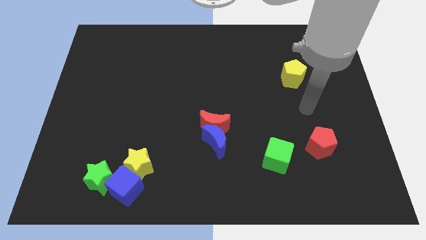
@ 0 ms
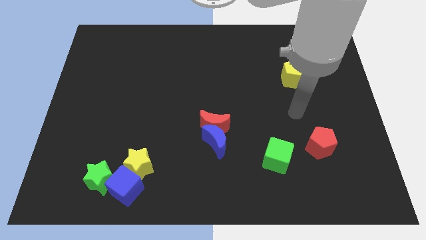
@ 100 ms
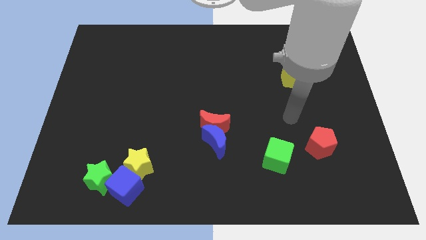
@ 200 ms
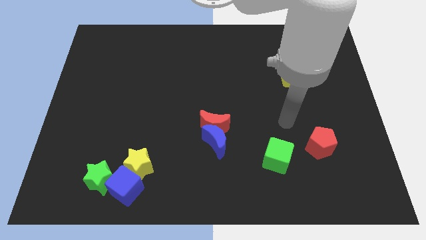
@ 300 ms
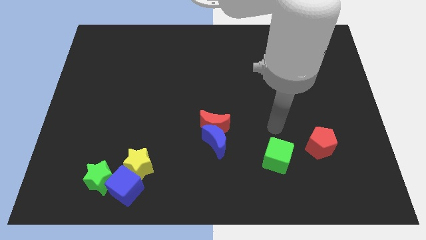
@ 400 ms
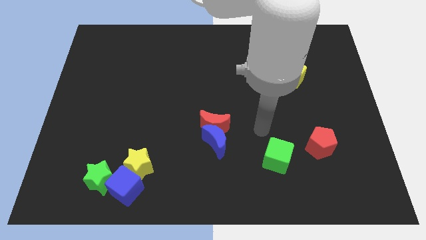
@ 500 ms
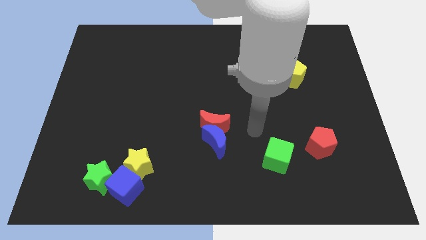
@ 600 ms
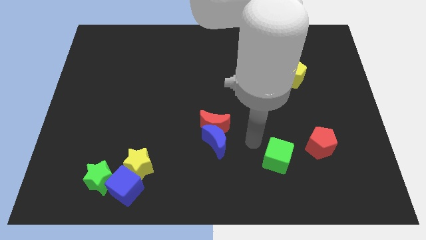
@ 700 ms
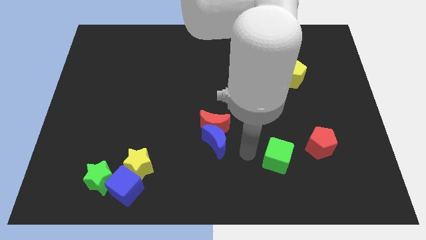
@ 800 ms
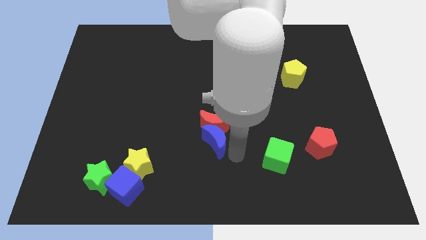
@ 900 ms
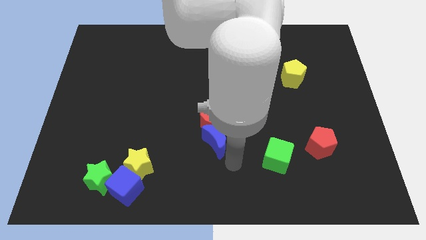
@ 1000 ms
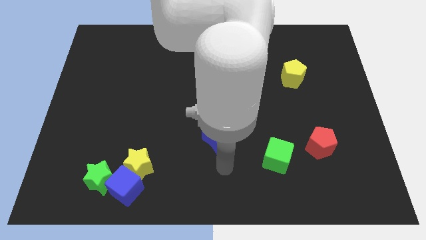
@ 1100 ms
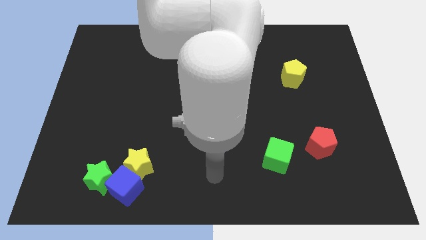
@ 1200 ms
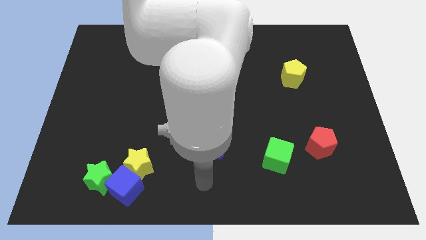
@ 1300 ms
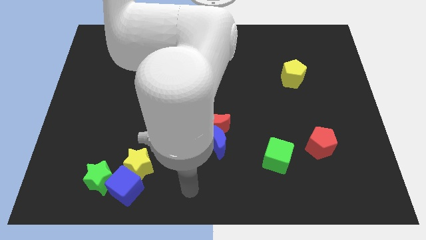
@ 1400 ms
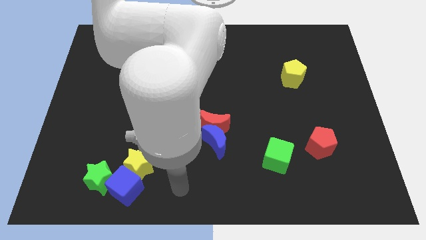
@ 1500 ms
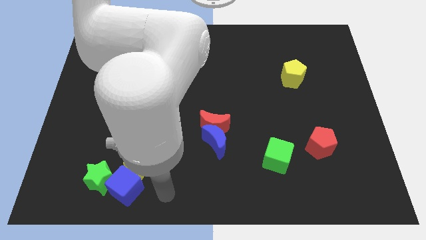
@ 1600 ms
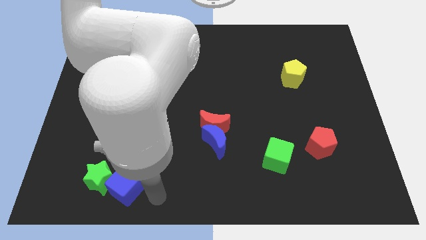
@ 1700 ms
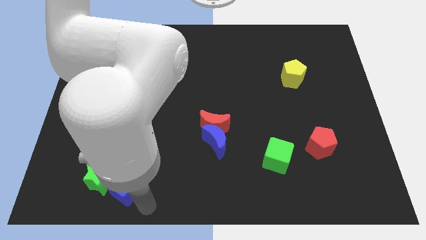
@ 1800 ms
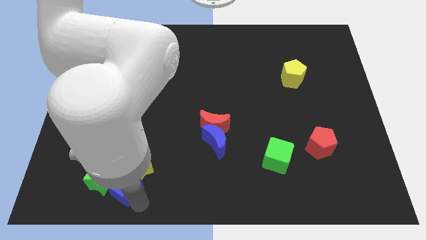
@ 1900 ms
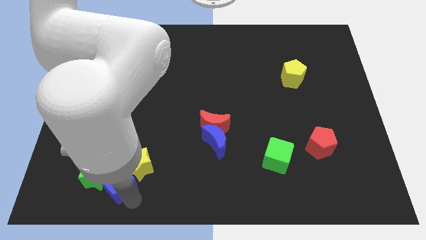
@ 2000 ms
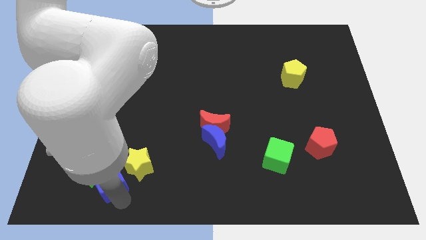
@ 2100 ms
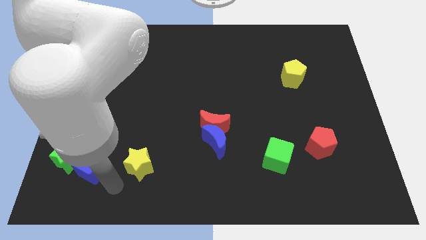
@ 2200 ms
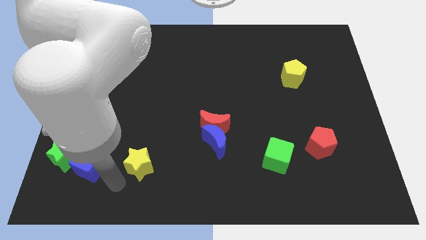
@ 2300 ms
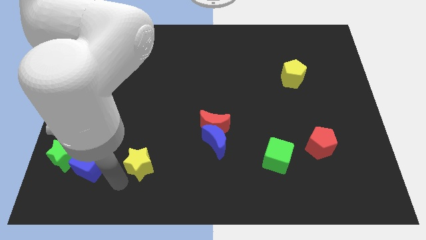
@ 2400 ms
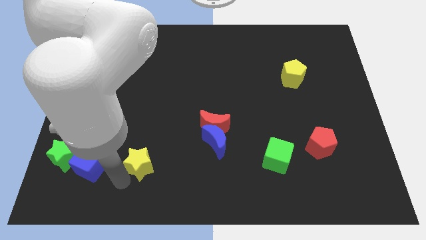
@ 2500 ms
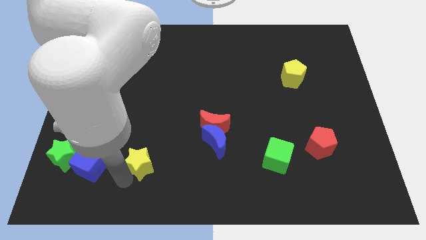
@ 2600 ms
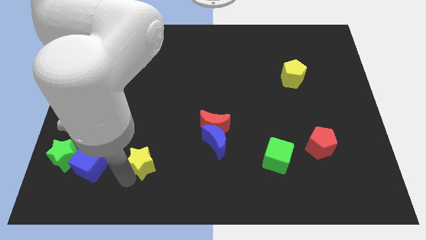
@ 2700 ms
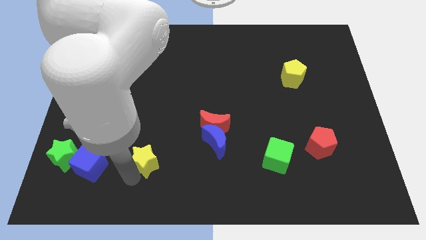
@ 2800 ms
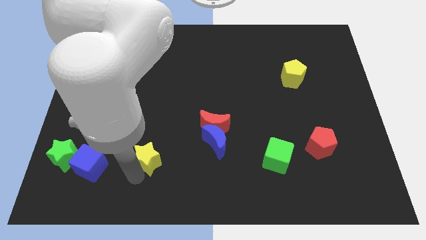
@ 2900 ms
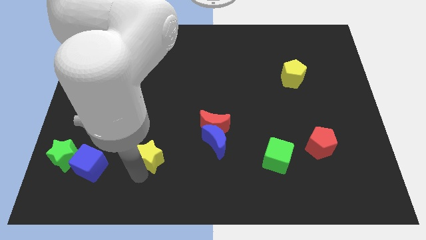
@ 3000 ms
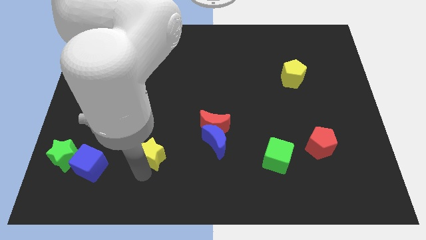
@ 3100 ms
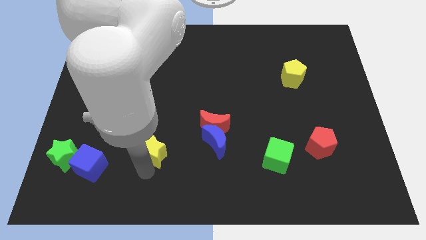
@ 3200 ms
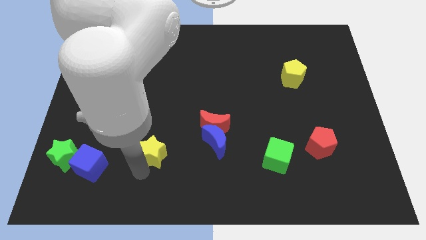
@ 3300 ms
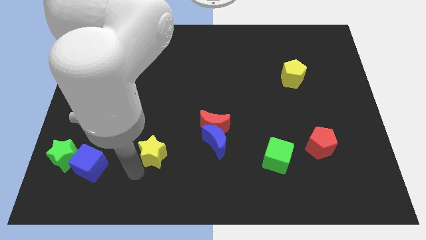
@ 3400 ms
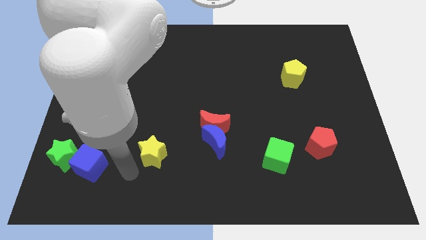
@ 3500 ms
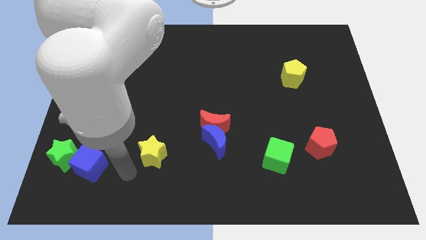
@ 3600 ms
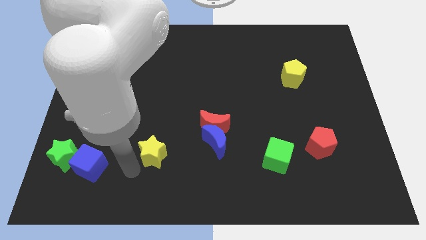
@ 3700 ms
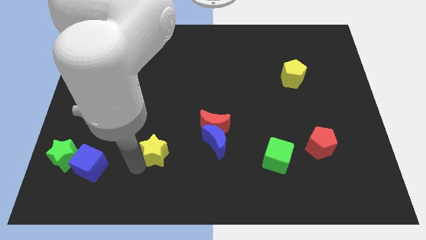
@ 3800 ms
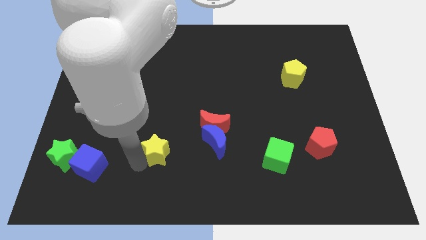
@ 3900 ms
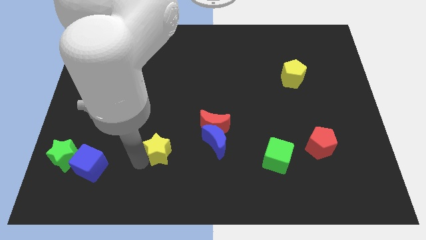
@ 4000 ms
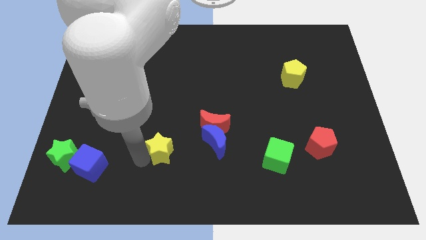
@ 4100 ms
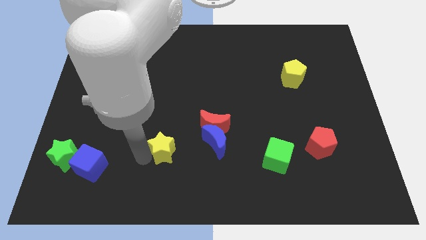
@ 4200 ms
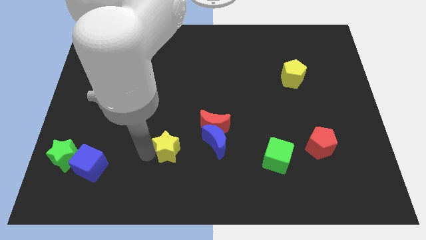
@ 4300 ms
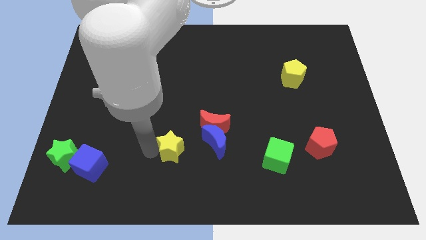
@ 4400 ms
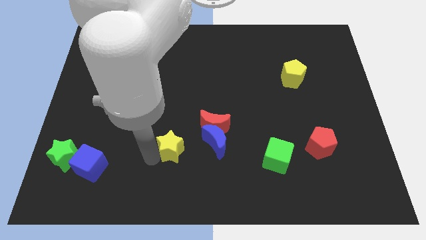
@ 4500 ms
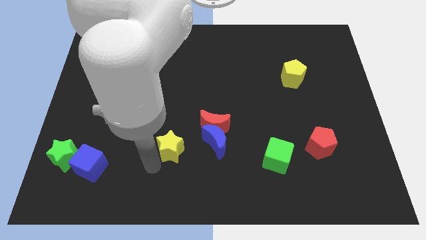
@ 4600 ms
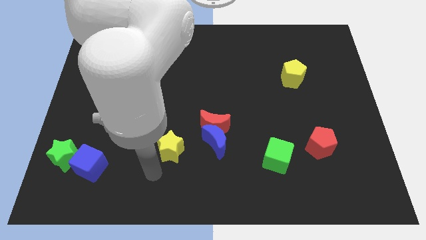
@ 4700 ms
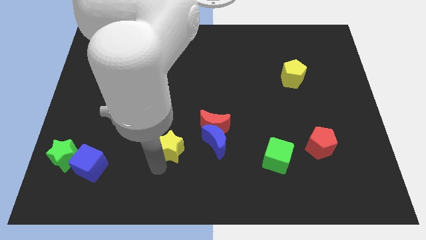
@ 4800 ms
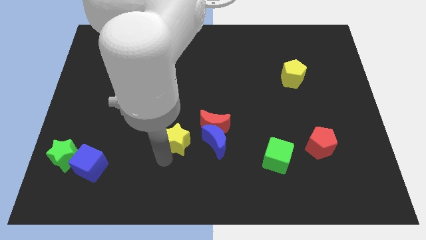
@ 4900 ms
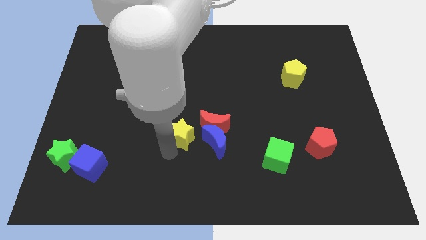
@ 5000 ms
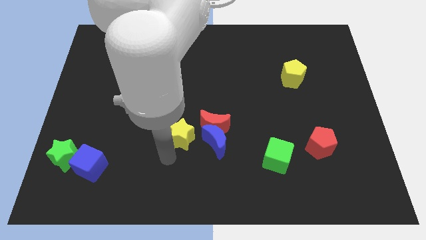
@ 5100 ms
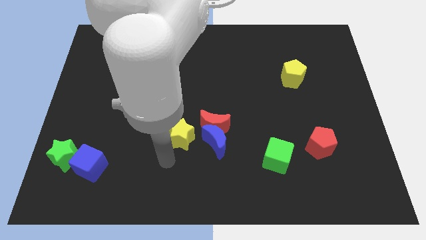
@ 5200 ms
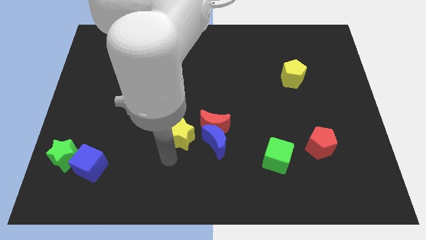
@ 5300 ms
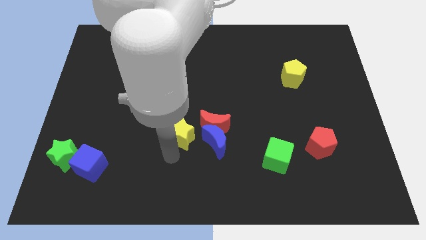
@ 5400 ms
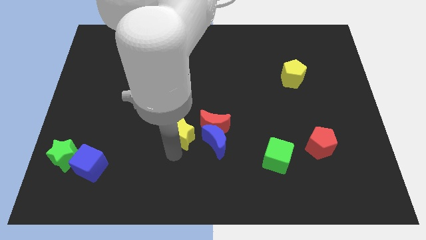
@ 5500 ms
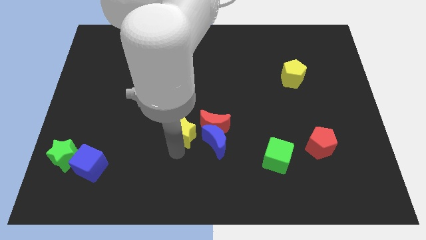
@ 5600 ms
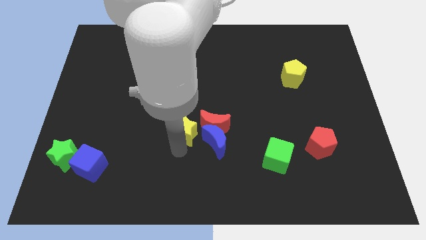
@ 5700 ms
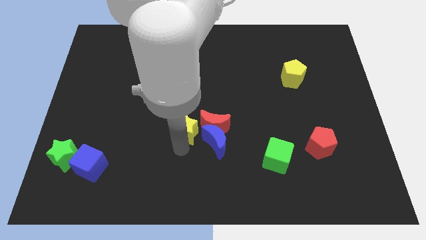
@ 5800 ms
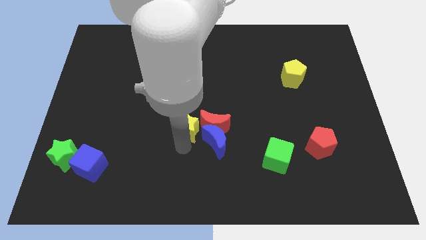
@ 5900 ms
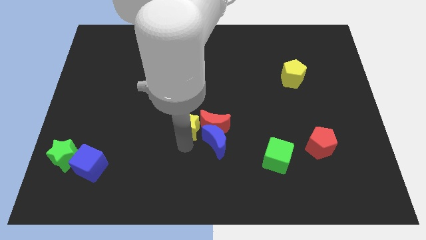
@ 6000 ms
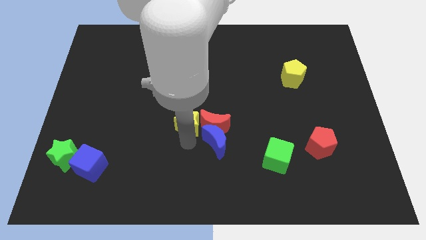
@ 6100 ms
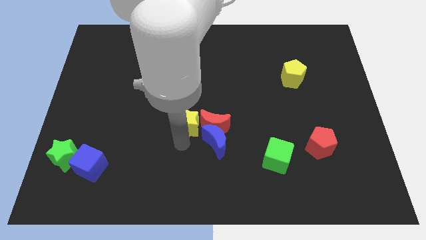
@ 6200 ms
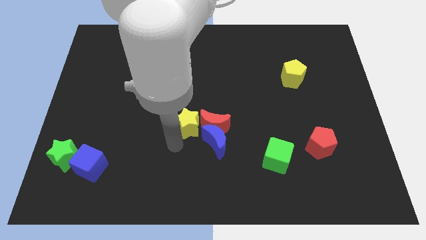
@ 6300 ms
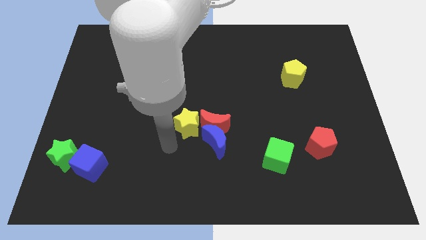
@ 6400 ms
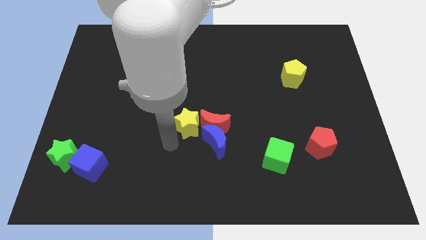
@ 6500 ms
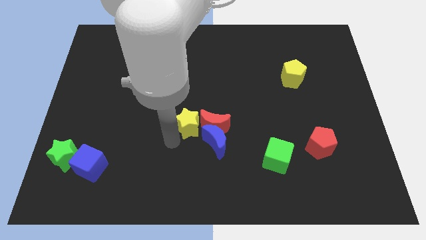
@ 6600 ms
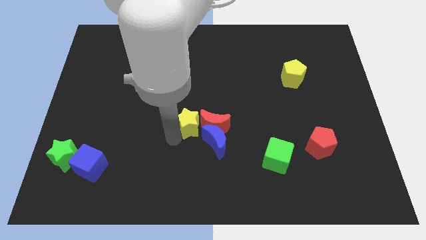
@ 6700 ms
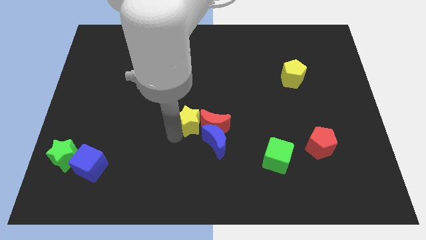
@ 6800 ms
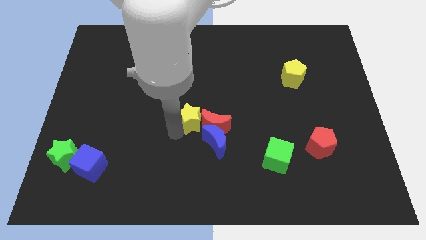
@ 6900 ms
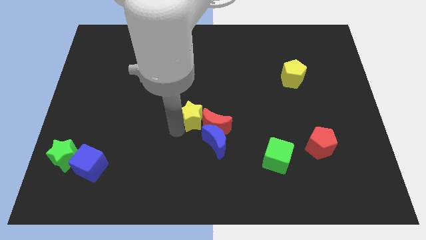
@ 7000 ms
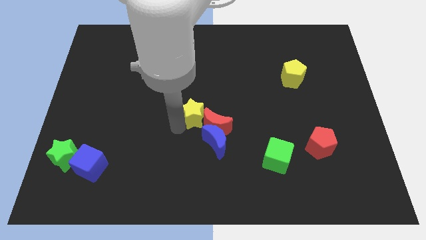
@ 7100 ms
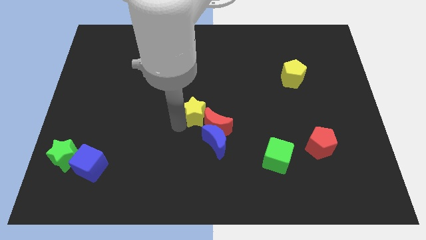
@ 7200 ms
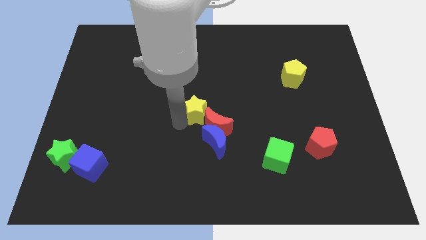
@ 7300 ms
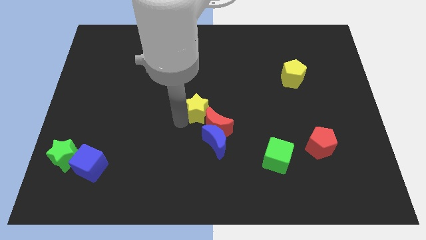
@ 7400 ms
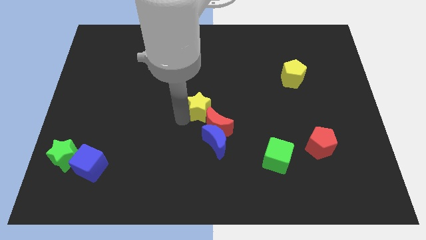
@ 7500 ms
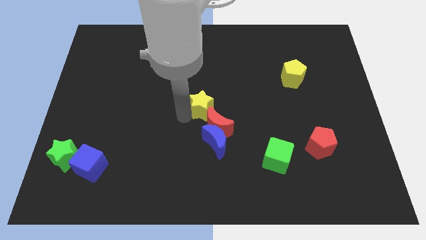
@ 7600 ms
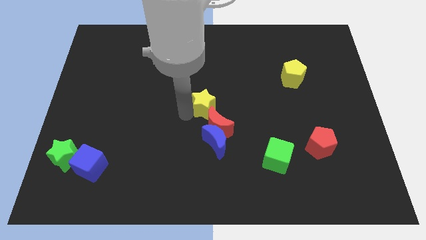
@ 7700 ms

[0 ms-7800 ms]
slide the yellow star up and to the right diagonally

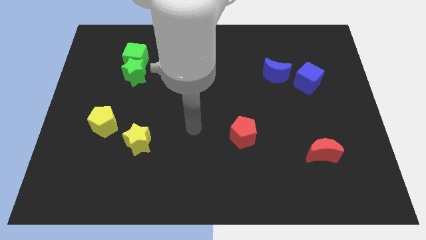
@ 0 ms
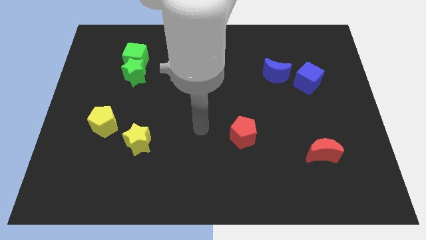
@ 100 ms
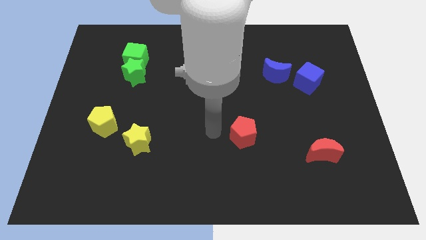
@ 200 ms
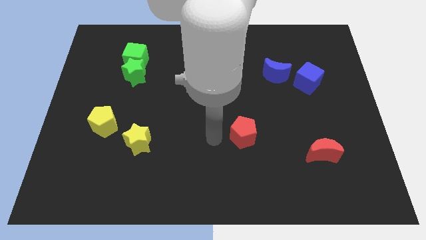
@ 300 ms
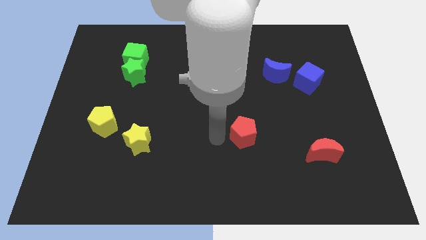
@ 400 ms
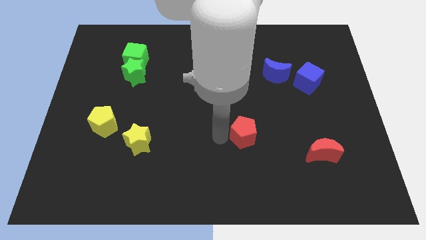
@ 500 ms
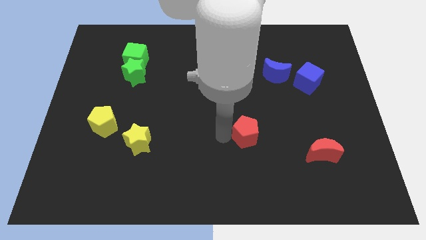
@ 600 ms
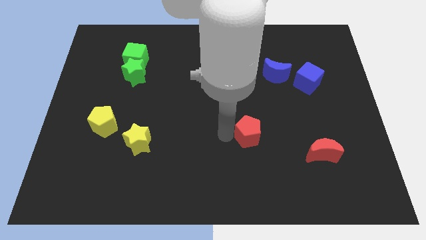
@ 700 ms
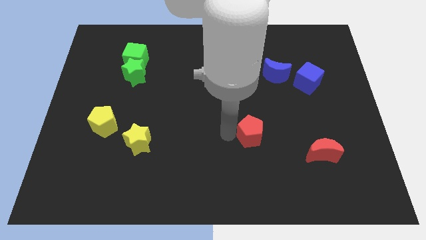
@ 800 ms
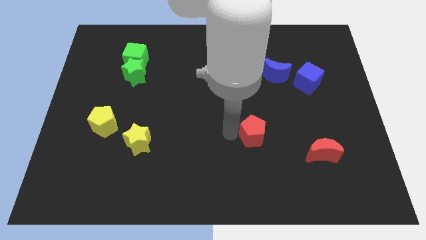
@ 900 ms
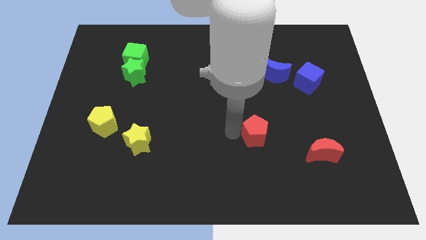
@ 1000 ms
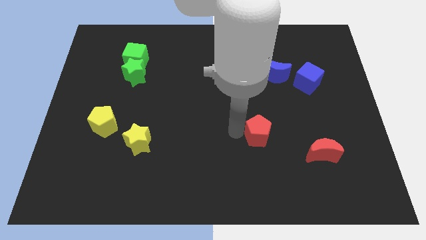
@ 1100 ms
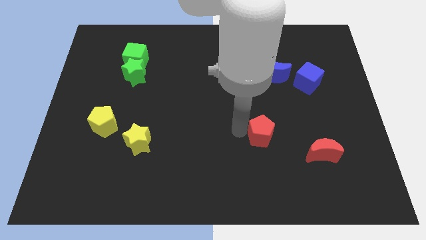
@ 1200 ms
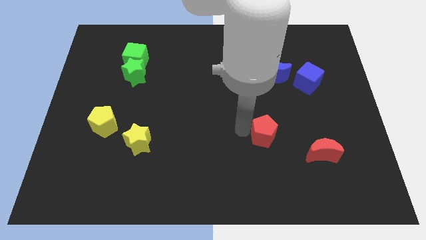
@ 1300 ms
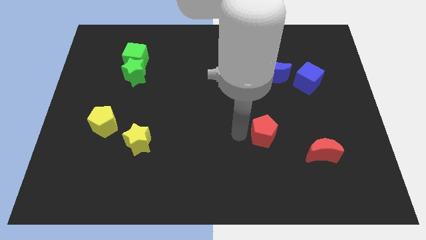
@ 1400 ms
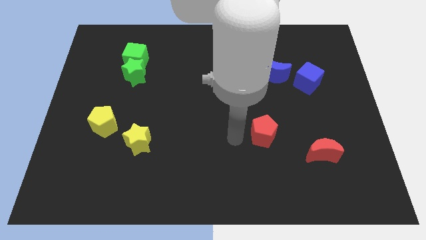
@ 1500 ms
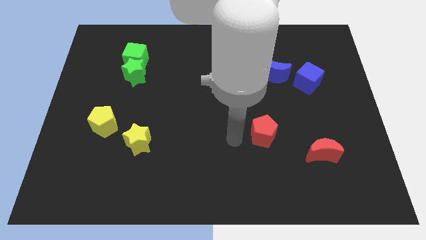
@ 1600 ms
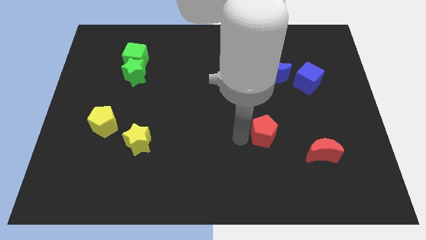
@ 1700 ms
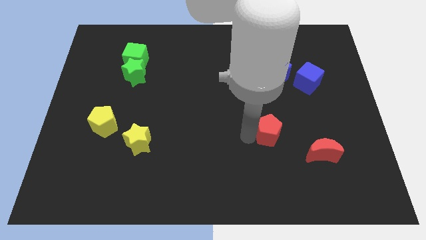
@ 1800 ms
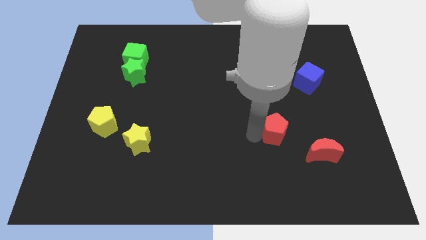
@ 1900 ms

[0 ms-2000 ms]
slide the red pentagon to the right a little bit
